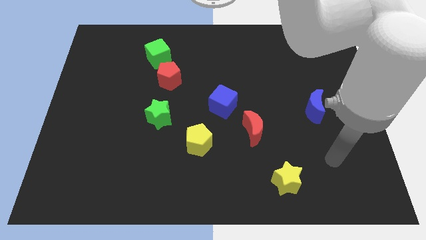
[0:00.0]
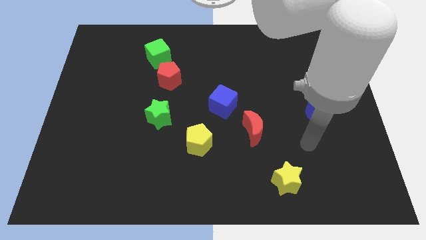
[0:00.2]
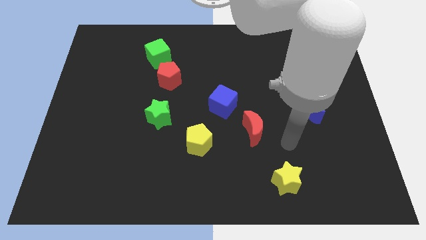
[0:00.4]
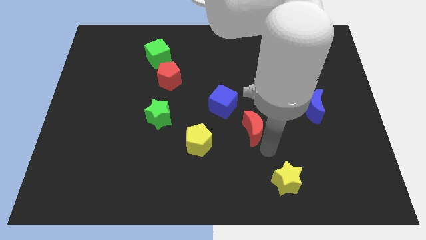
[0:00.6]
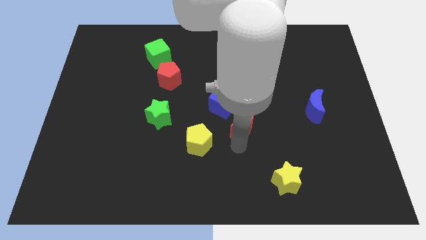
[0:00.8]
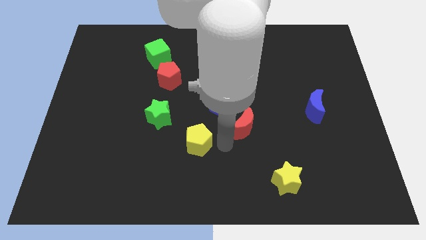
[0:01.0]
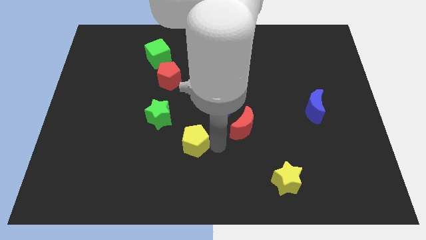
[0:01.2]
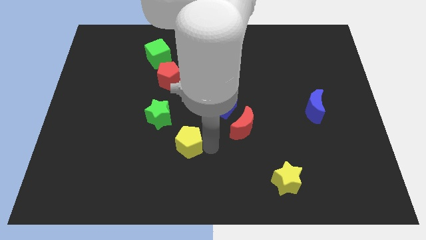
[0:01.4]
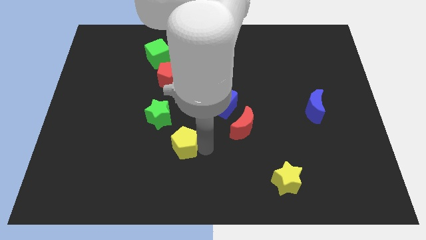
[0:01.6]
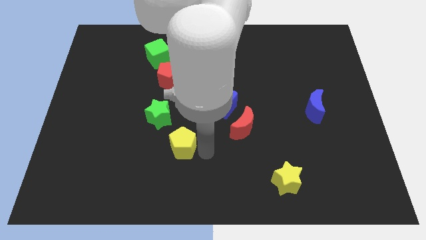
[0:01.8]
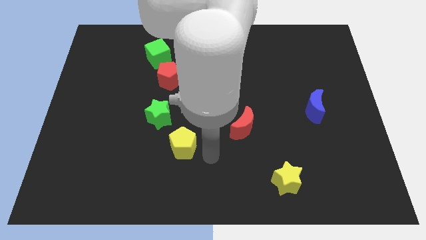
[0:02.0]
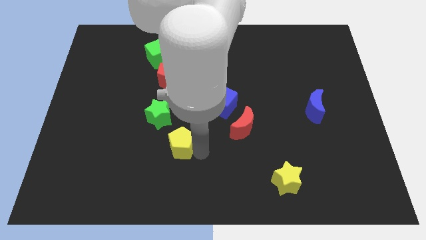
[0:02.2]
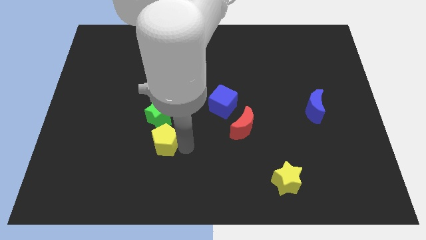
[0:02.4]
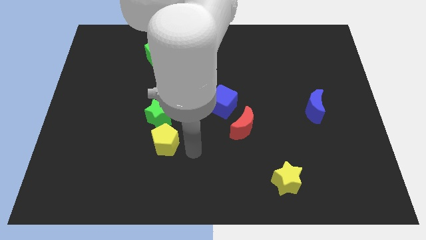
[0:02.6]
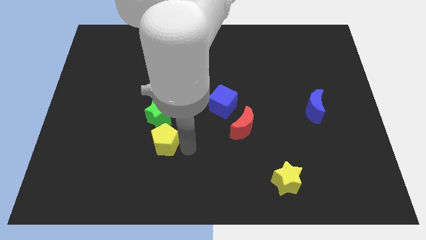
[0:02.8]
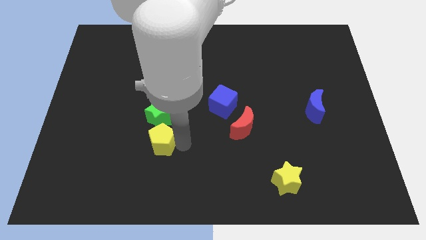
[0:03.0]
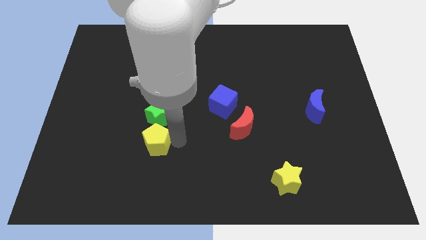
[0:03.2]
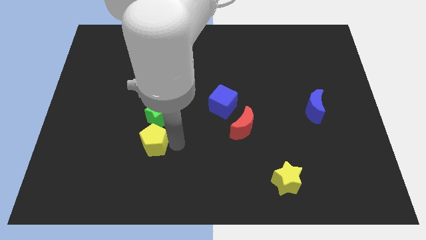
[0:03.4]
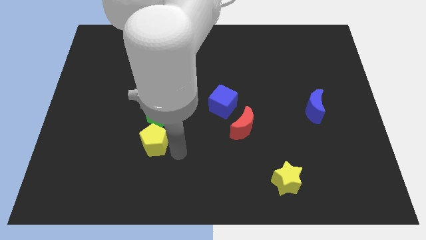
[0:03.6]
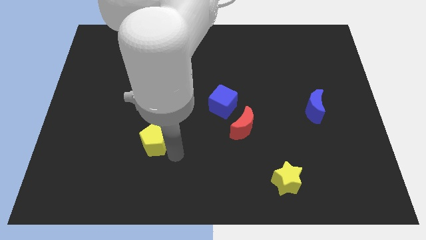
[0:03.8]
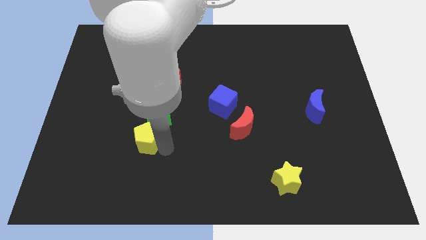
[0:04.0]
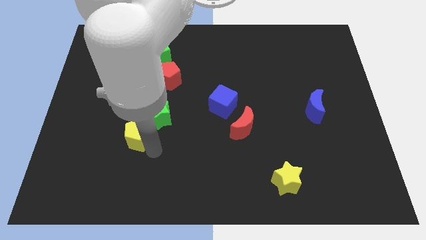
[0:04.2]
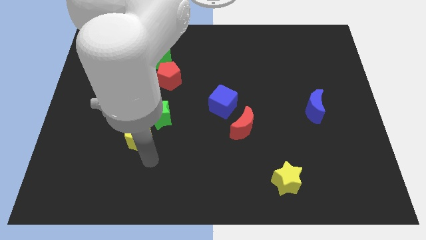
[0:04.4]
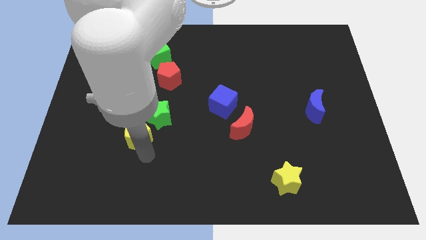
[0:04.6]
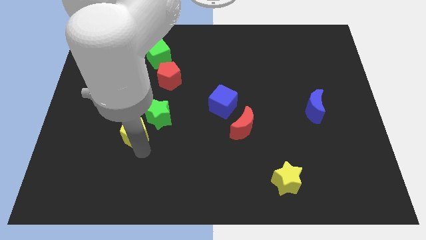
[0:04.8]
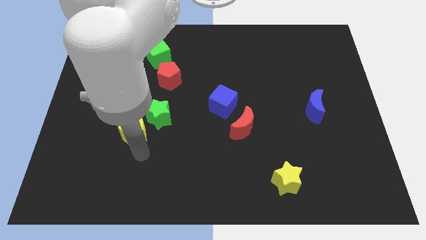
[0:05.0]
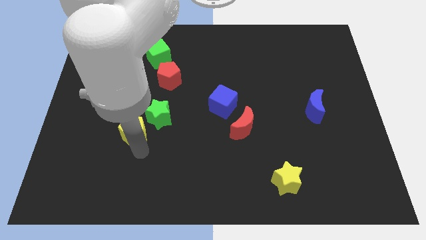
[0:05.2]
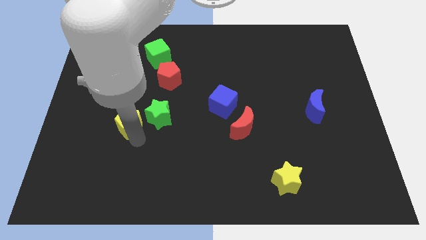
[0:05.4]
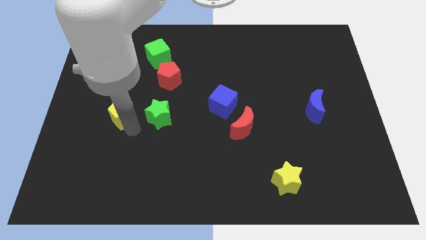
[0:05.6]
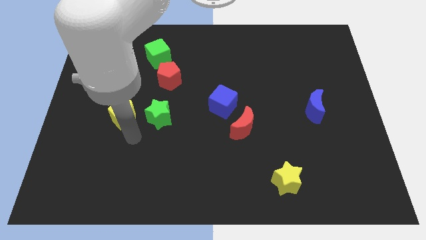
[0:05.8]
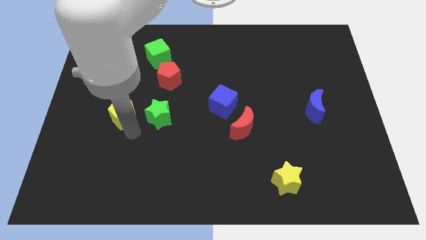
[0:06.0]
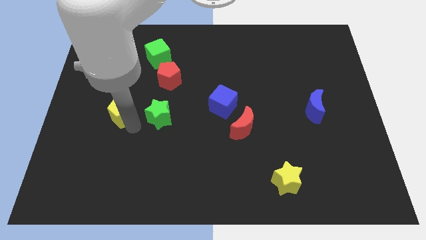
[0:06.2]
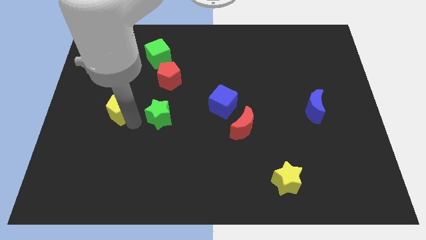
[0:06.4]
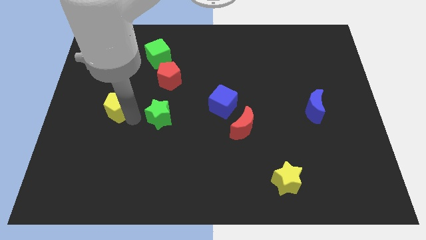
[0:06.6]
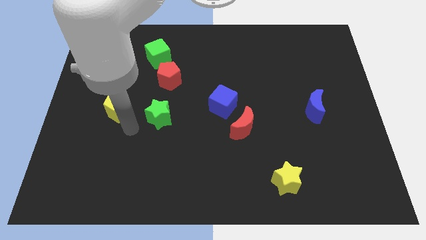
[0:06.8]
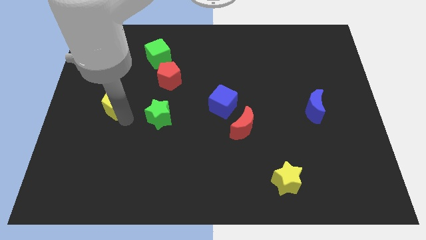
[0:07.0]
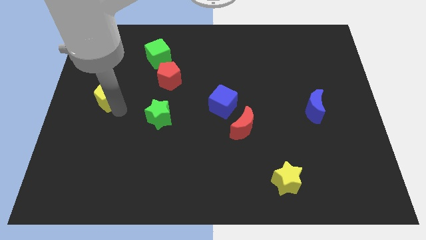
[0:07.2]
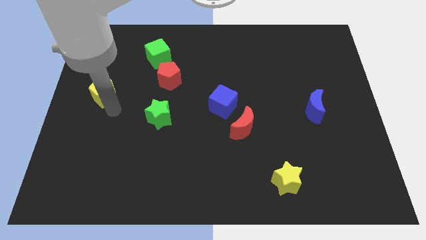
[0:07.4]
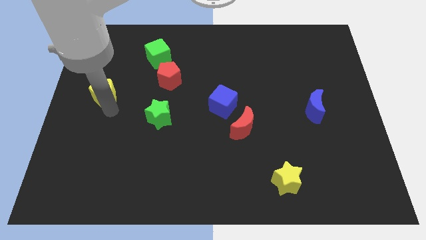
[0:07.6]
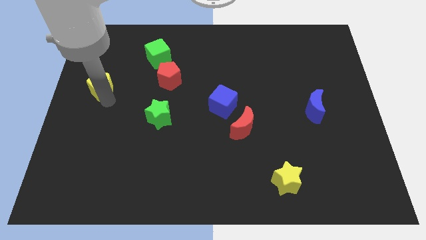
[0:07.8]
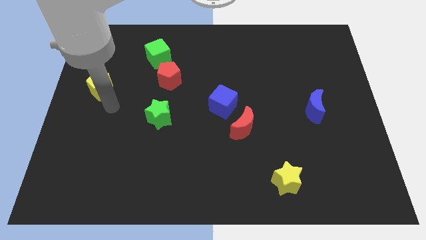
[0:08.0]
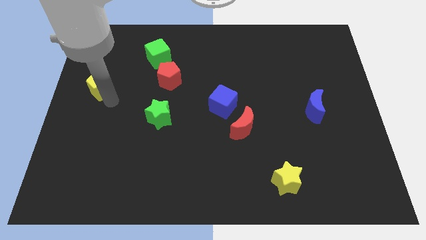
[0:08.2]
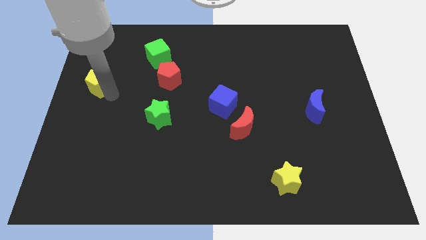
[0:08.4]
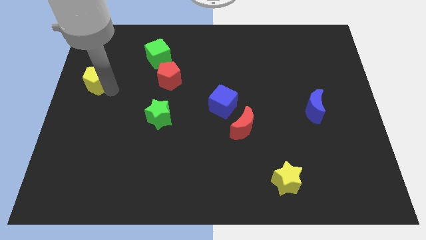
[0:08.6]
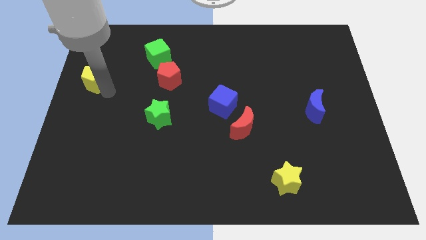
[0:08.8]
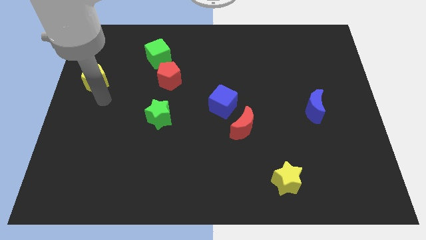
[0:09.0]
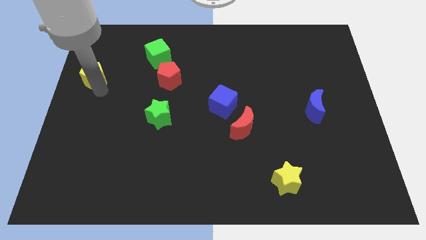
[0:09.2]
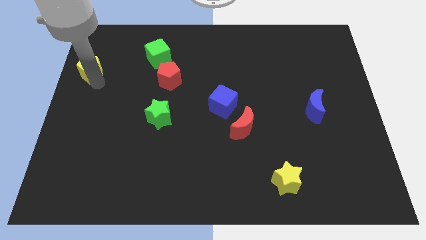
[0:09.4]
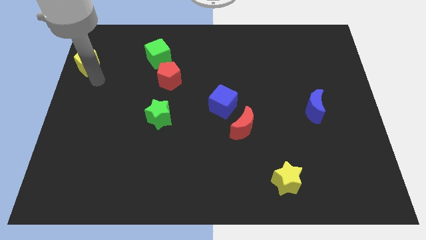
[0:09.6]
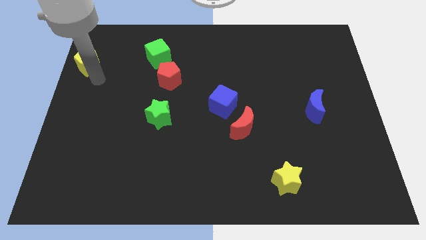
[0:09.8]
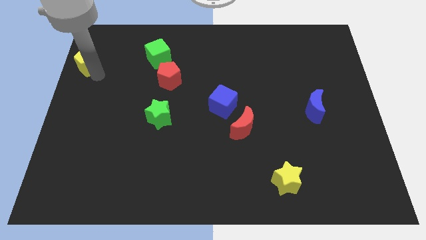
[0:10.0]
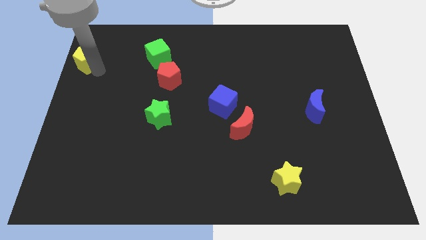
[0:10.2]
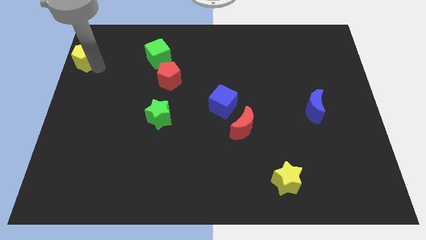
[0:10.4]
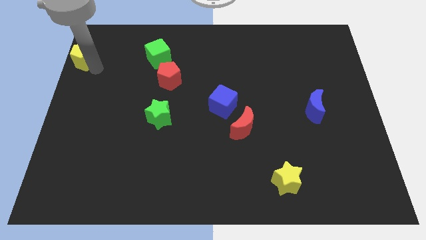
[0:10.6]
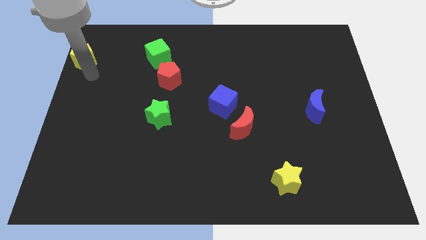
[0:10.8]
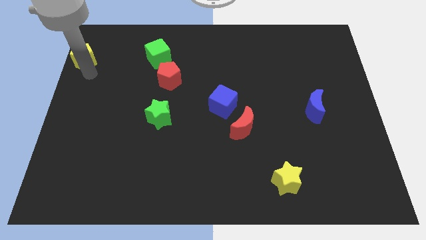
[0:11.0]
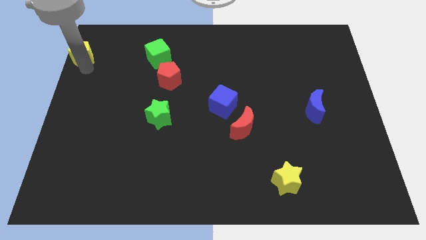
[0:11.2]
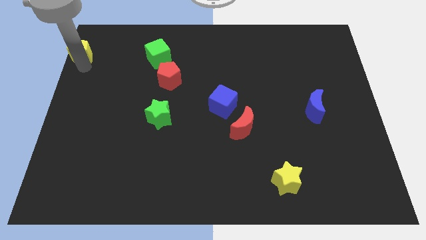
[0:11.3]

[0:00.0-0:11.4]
move the yellow pentagon to the top left corner

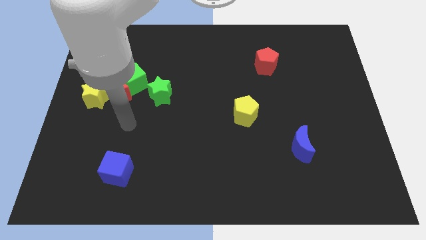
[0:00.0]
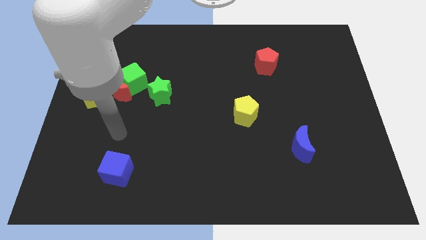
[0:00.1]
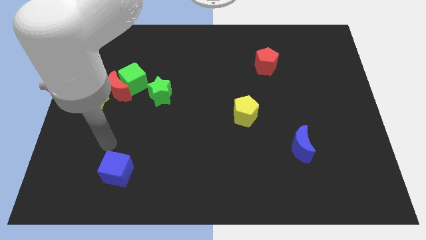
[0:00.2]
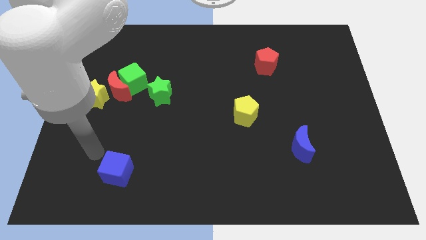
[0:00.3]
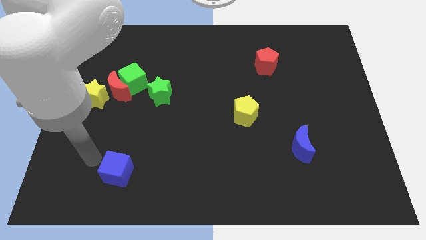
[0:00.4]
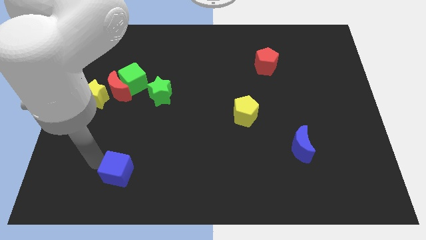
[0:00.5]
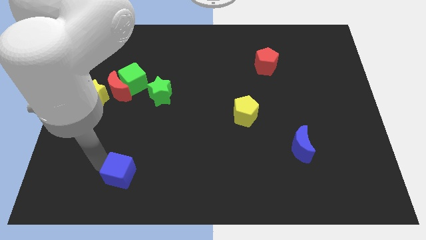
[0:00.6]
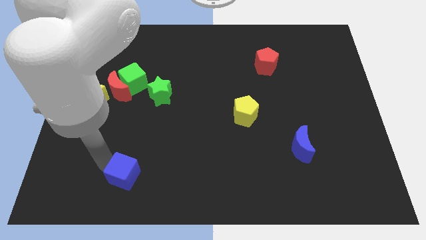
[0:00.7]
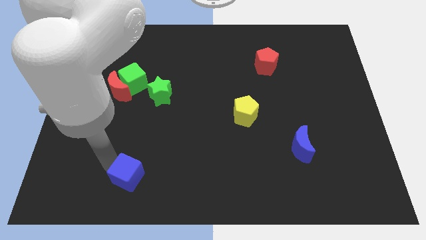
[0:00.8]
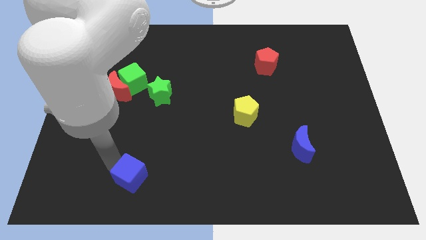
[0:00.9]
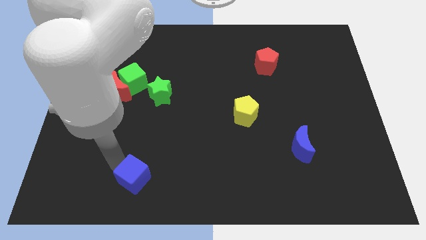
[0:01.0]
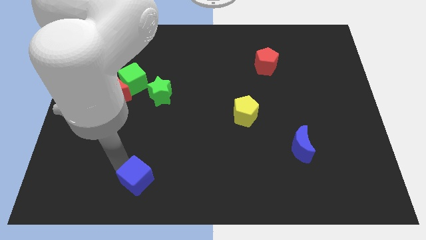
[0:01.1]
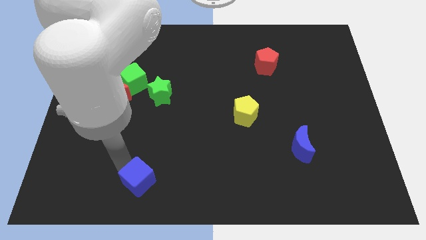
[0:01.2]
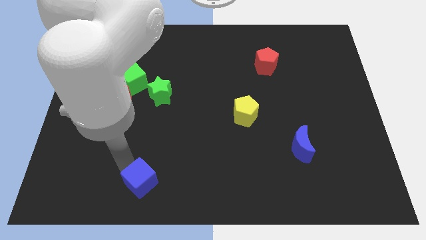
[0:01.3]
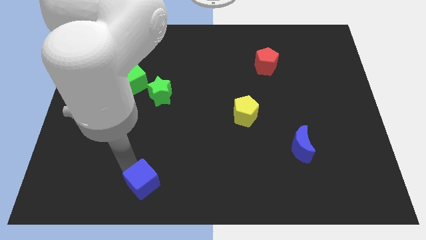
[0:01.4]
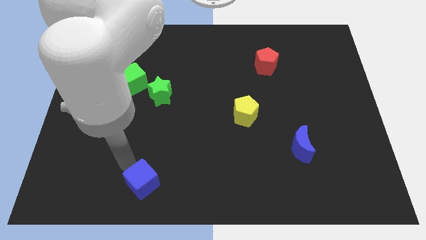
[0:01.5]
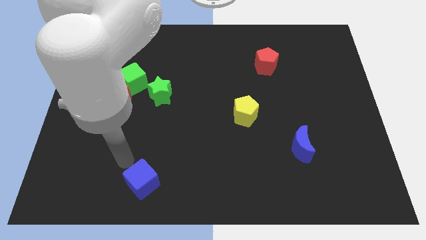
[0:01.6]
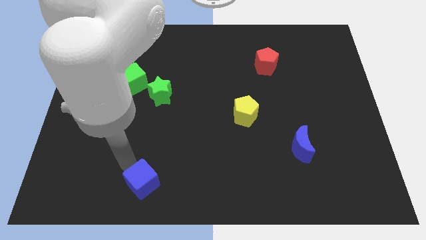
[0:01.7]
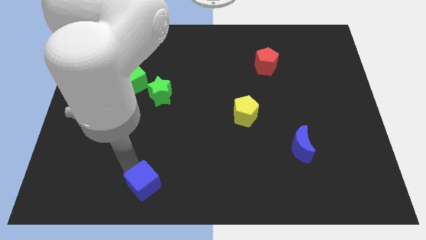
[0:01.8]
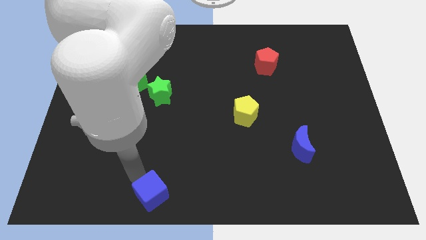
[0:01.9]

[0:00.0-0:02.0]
move the blue cube to the bottom side
